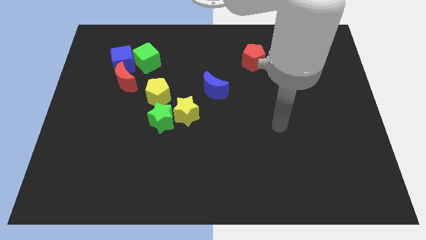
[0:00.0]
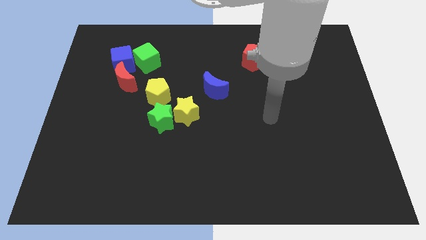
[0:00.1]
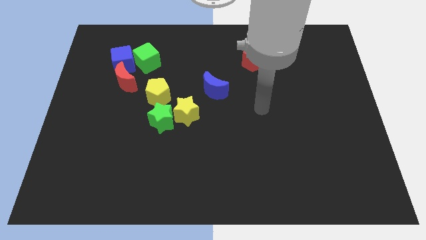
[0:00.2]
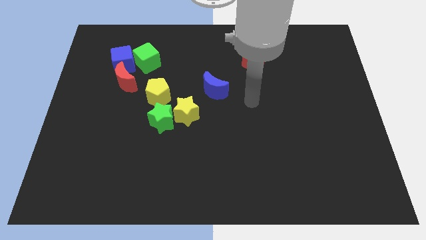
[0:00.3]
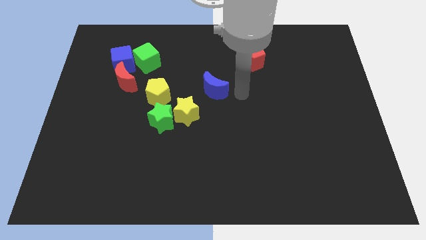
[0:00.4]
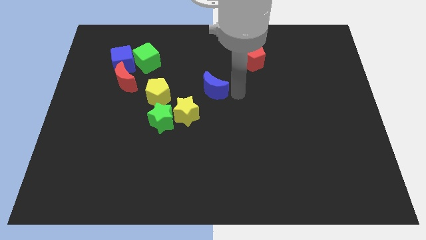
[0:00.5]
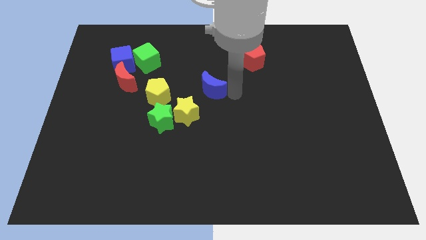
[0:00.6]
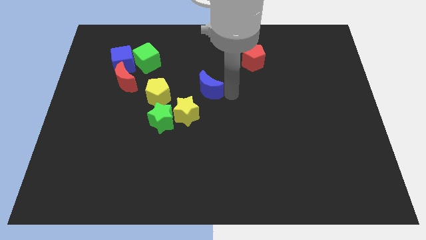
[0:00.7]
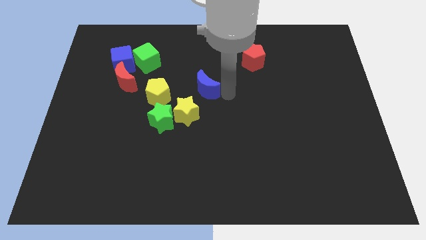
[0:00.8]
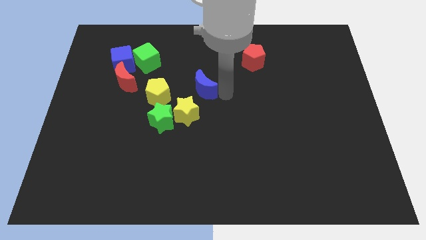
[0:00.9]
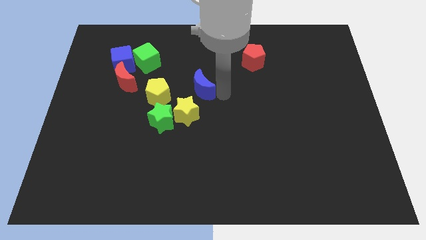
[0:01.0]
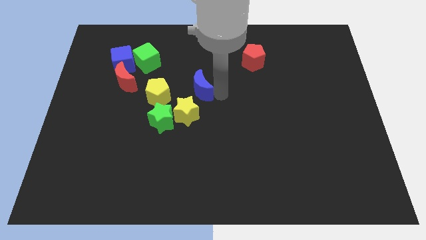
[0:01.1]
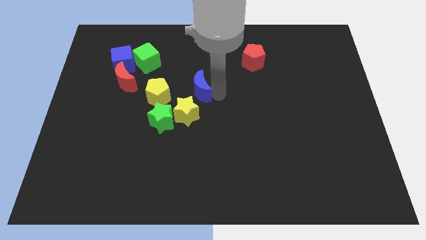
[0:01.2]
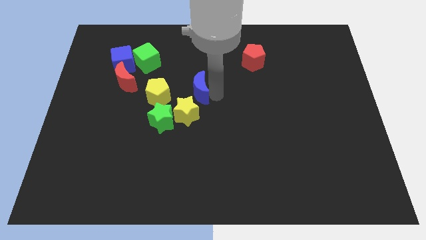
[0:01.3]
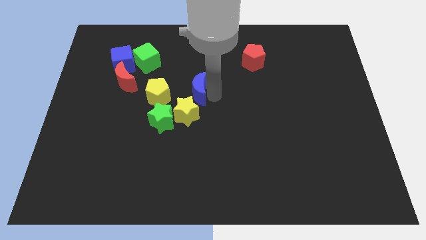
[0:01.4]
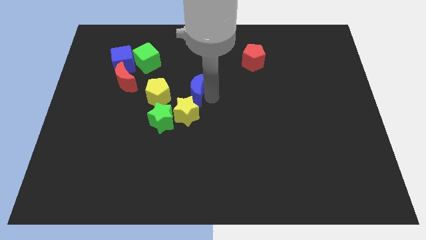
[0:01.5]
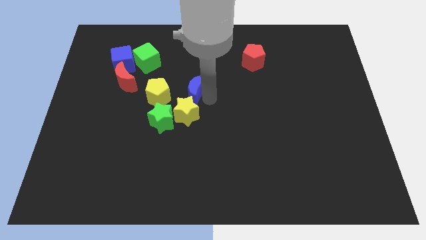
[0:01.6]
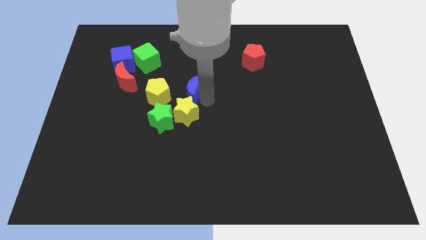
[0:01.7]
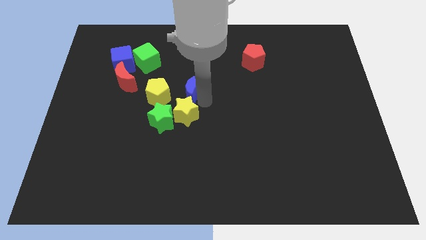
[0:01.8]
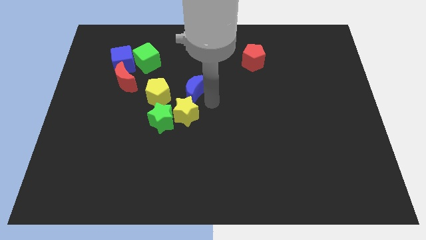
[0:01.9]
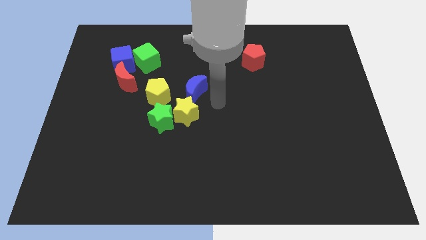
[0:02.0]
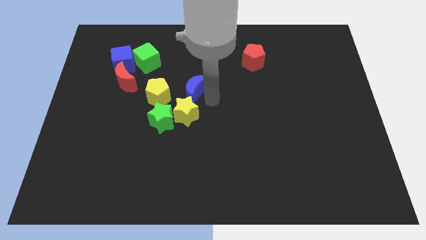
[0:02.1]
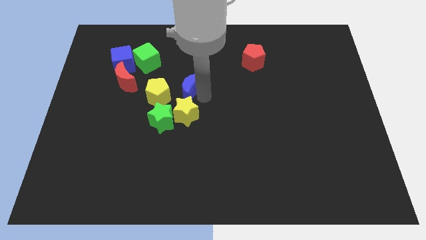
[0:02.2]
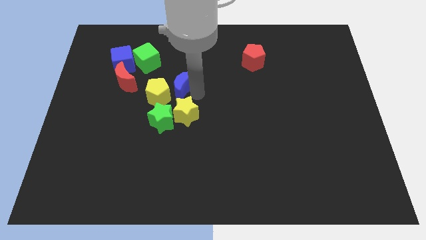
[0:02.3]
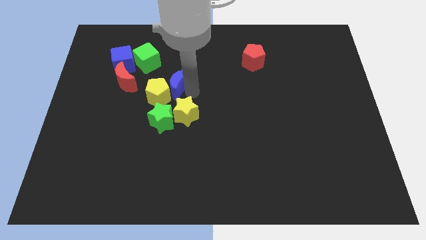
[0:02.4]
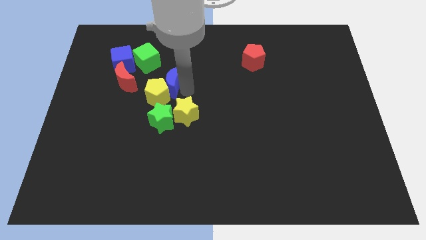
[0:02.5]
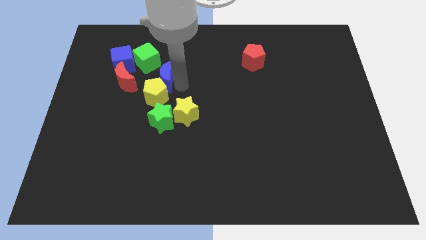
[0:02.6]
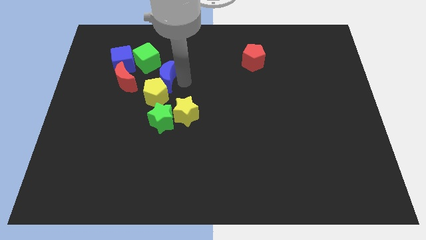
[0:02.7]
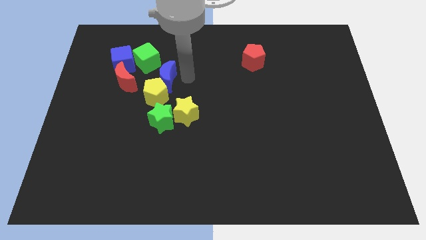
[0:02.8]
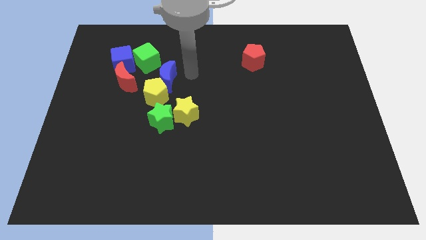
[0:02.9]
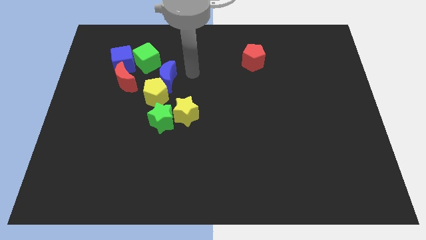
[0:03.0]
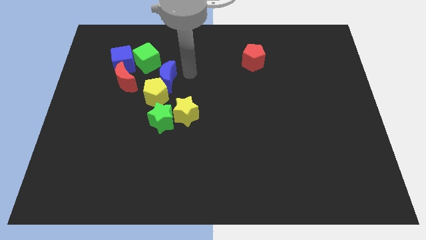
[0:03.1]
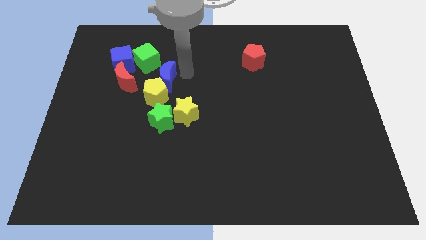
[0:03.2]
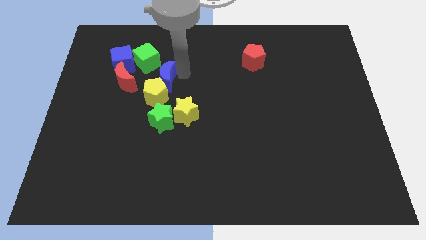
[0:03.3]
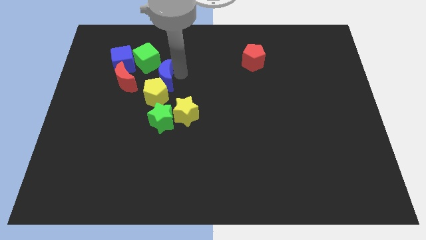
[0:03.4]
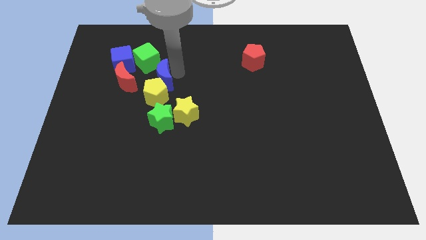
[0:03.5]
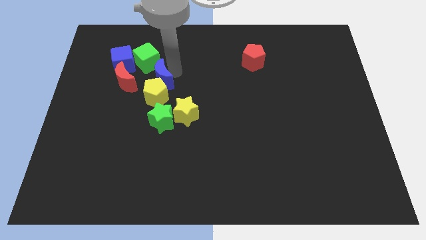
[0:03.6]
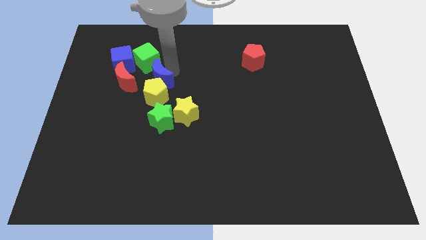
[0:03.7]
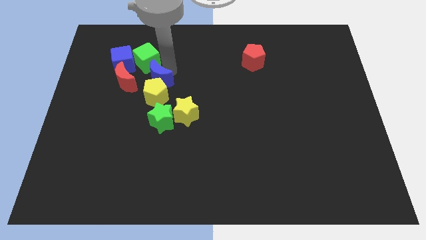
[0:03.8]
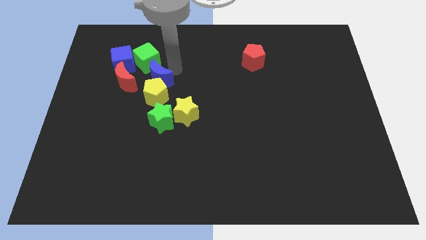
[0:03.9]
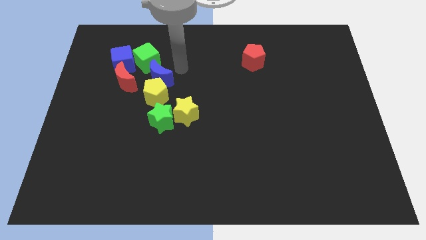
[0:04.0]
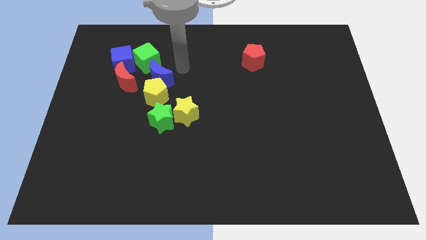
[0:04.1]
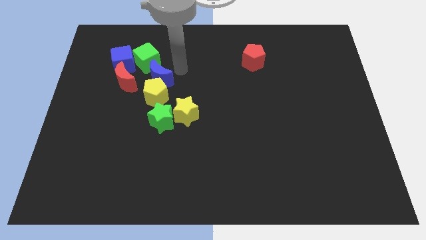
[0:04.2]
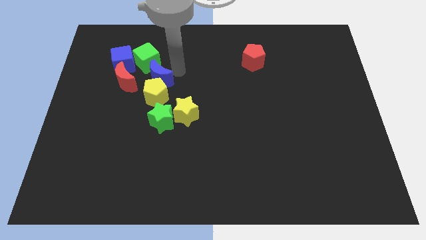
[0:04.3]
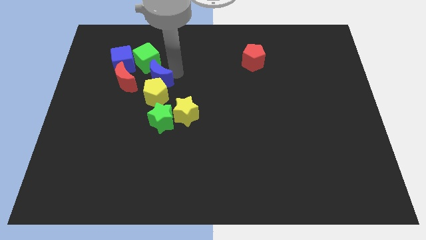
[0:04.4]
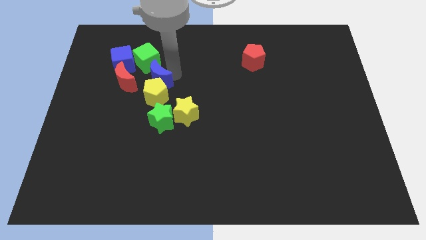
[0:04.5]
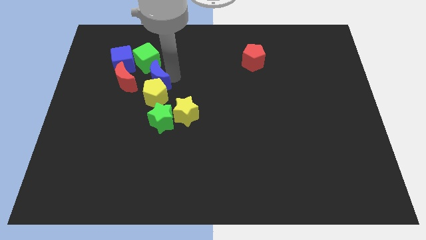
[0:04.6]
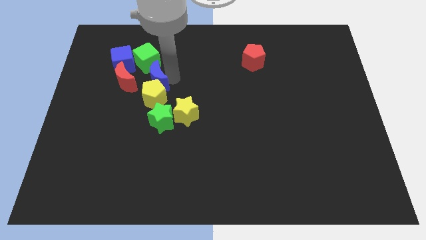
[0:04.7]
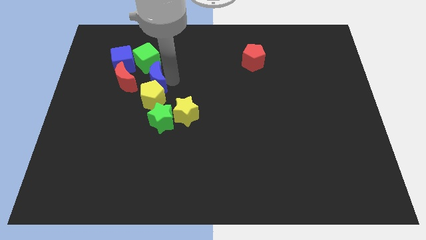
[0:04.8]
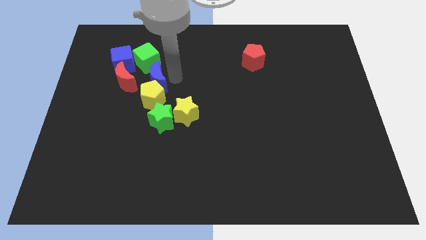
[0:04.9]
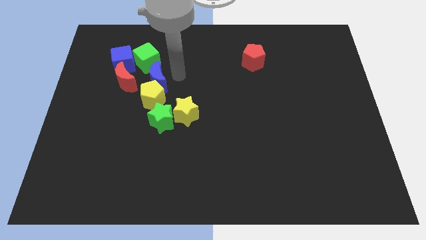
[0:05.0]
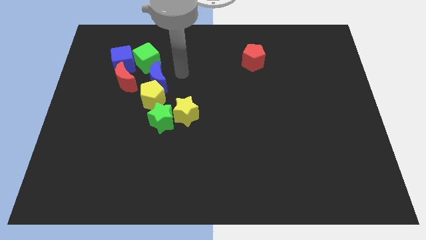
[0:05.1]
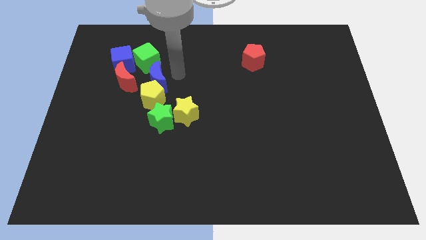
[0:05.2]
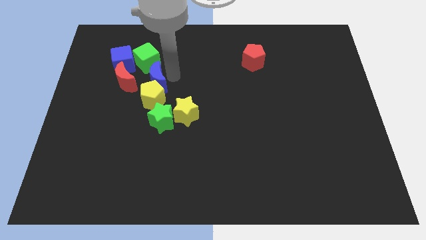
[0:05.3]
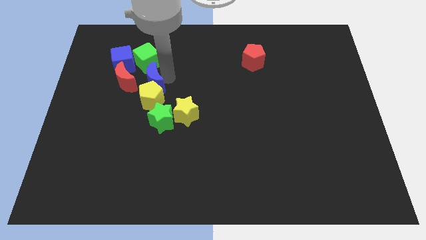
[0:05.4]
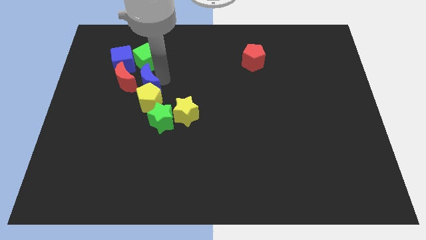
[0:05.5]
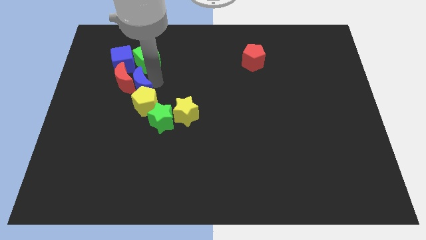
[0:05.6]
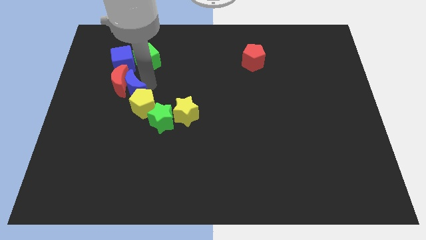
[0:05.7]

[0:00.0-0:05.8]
push the blue moon to the bottom side of the blue cube

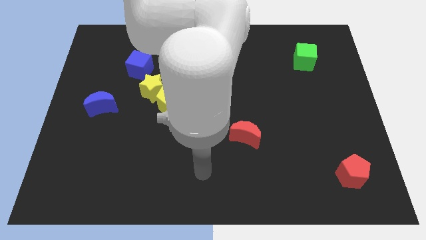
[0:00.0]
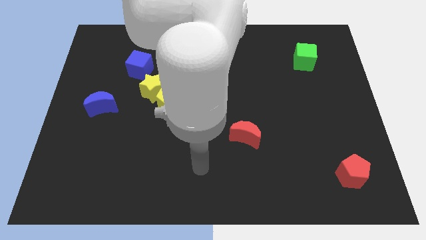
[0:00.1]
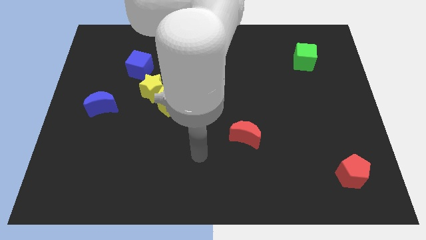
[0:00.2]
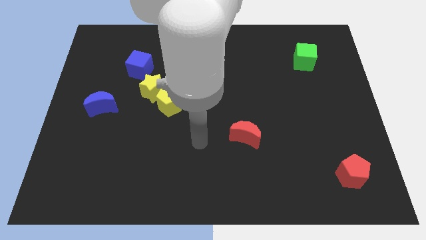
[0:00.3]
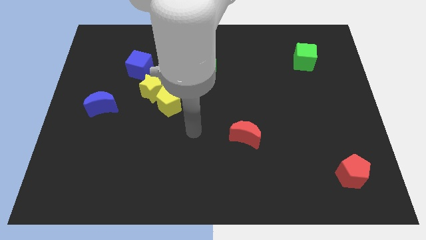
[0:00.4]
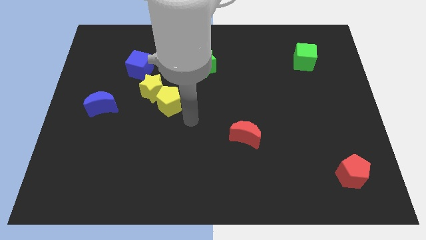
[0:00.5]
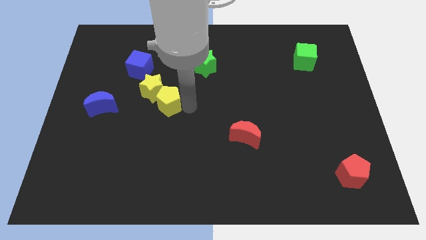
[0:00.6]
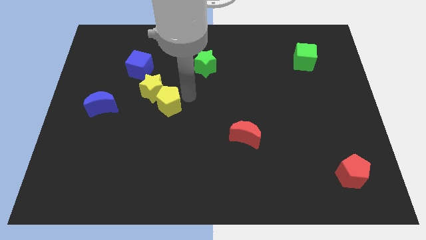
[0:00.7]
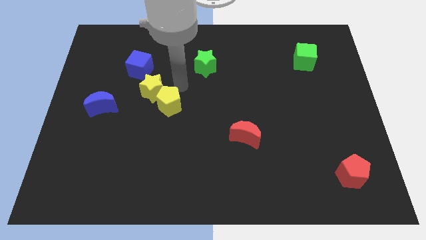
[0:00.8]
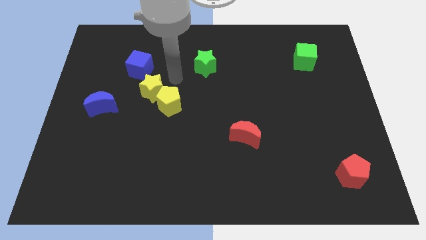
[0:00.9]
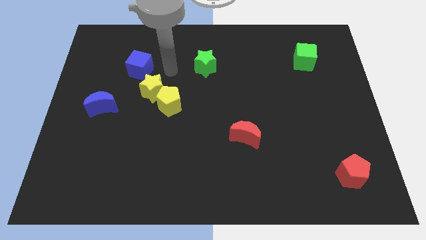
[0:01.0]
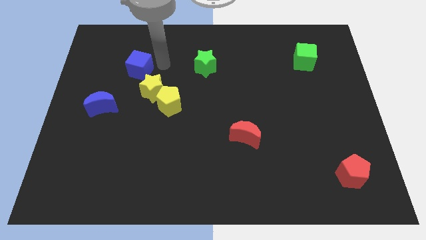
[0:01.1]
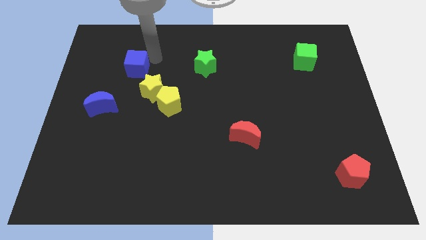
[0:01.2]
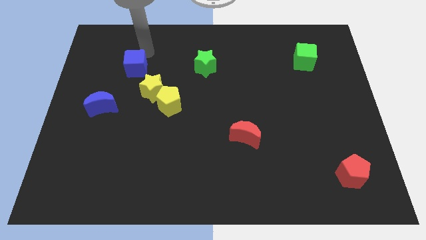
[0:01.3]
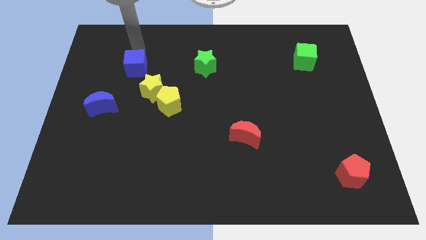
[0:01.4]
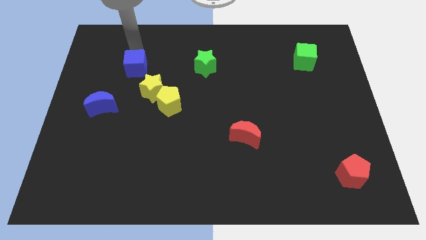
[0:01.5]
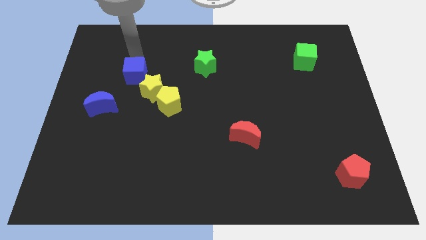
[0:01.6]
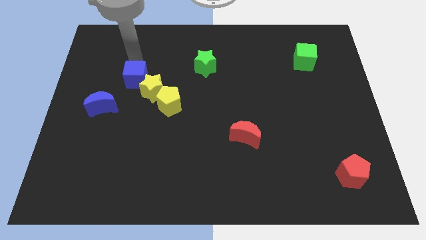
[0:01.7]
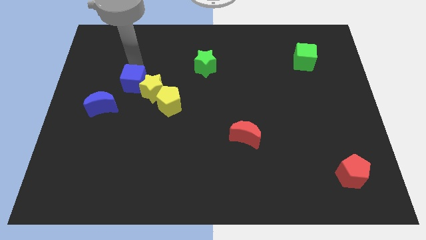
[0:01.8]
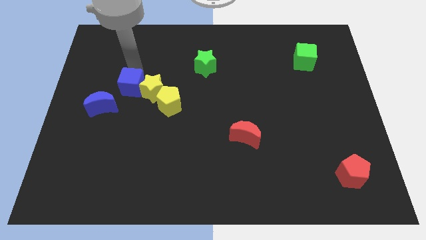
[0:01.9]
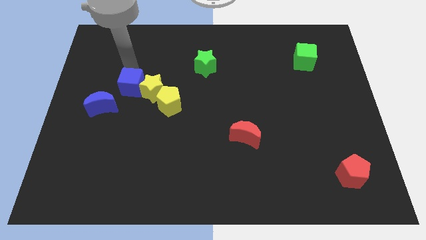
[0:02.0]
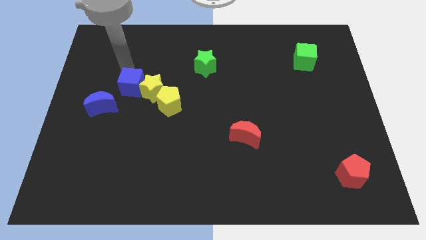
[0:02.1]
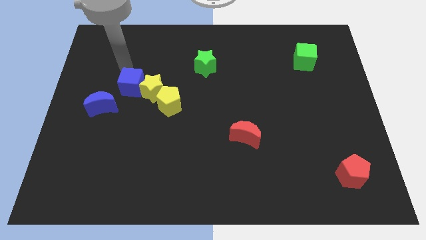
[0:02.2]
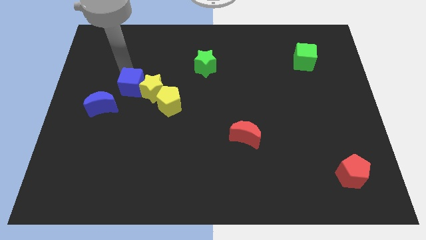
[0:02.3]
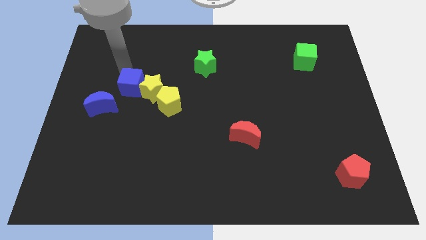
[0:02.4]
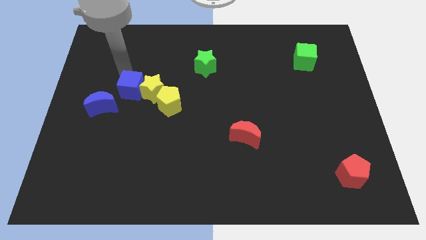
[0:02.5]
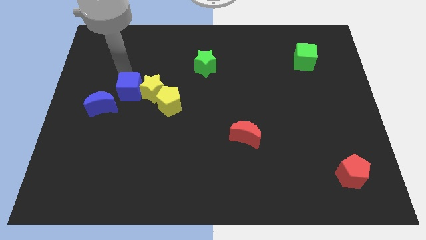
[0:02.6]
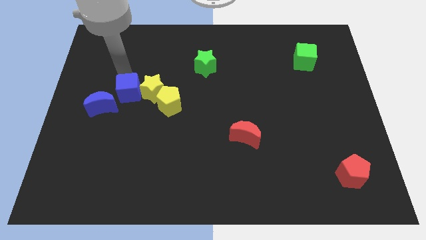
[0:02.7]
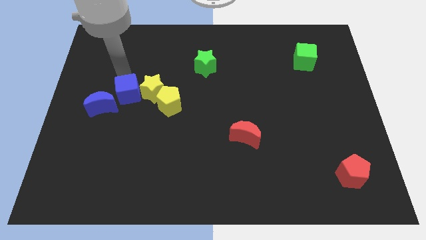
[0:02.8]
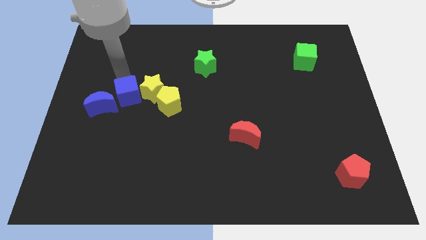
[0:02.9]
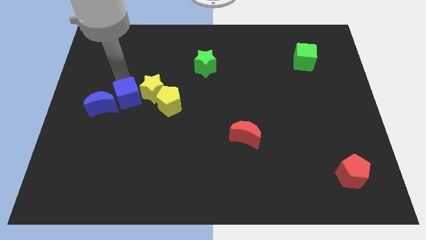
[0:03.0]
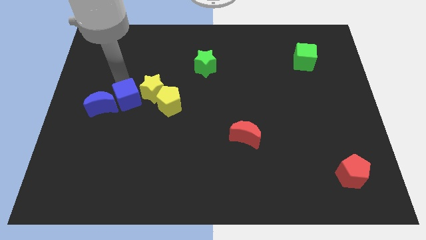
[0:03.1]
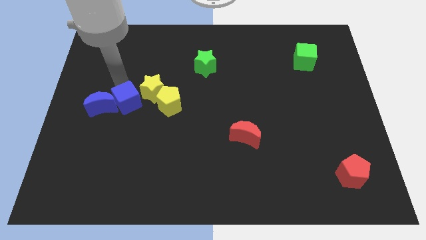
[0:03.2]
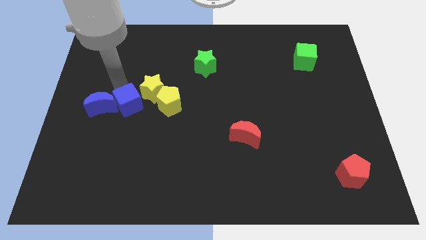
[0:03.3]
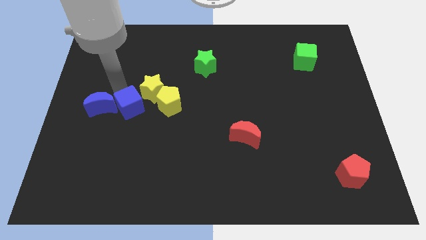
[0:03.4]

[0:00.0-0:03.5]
move the blue cube to the bottom side of the yellow star
